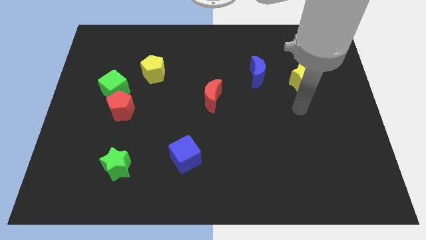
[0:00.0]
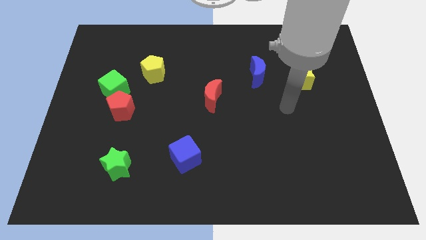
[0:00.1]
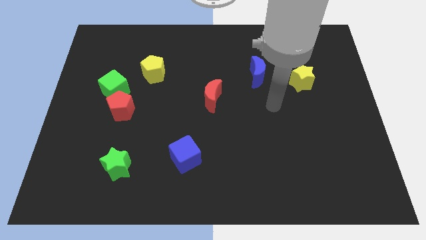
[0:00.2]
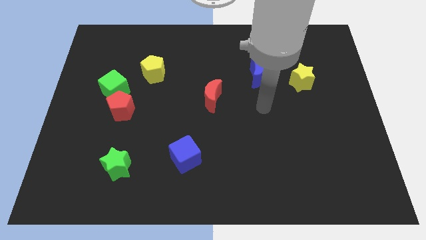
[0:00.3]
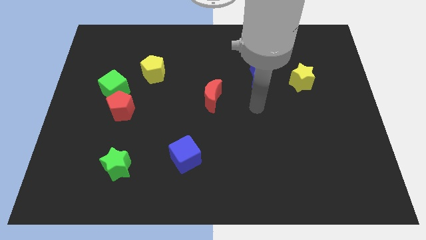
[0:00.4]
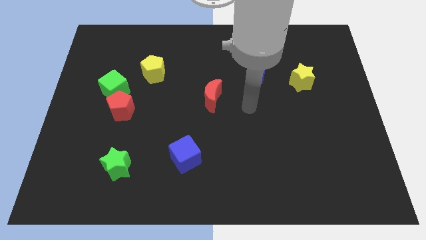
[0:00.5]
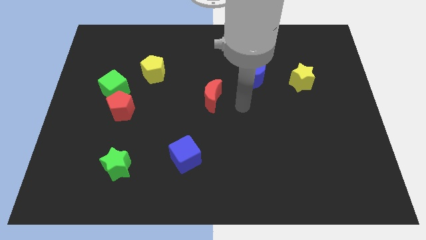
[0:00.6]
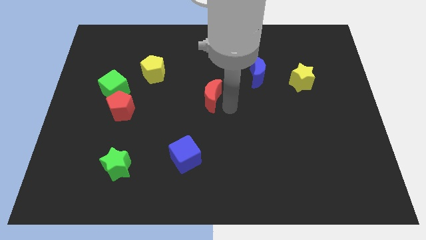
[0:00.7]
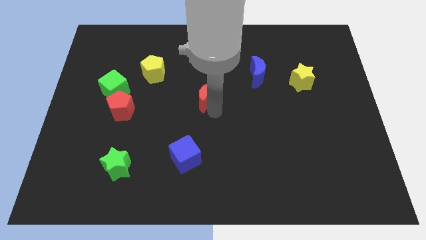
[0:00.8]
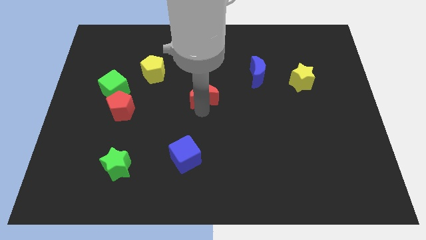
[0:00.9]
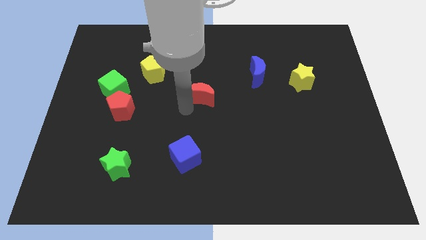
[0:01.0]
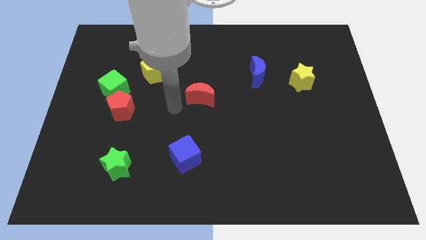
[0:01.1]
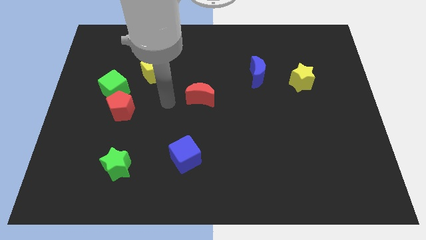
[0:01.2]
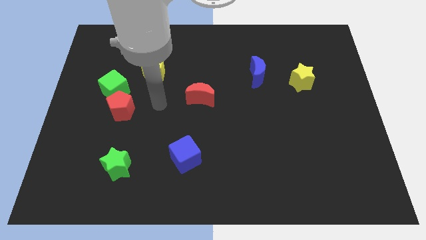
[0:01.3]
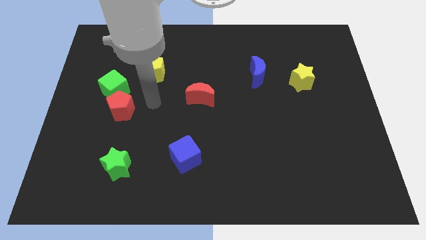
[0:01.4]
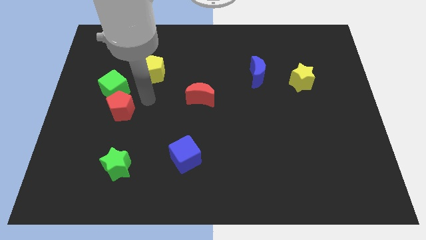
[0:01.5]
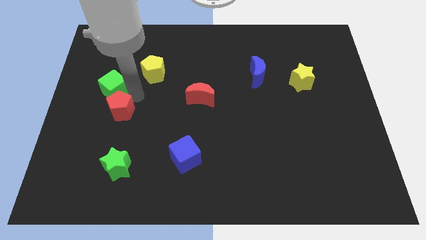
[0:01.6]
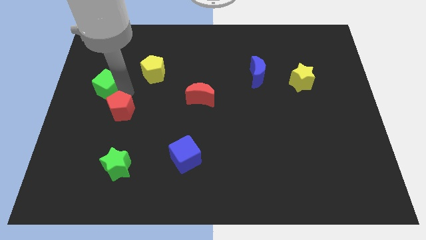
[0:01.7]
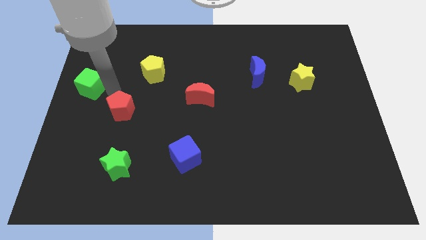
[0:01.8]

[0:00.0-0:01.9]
move the red pentagon away from the green cube

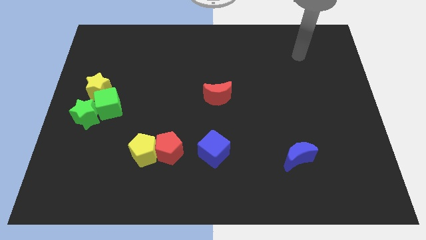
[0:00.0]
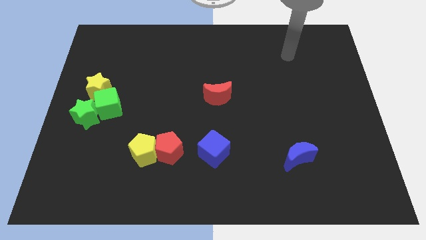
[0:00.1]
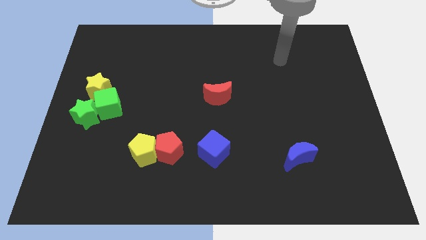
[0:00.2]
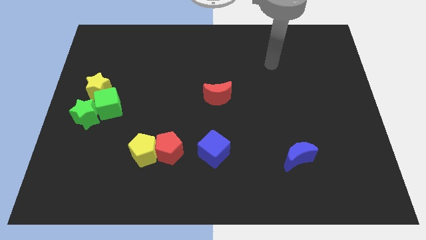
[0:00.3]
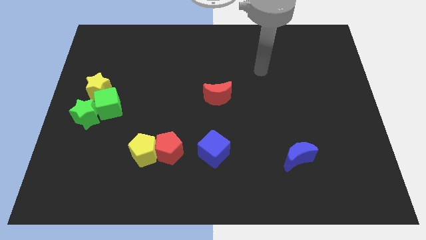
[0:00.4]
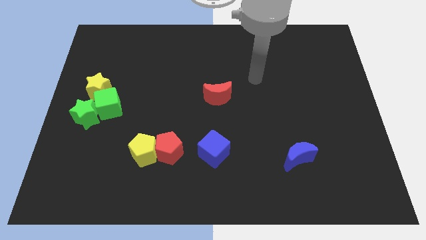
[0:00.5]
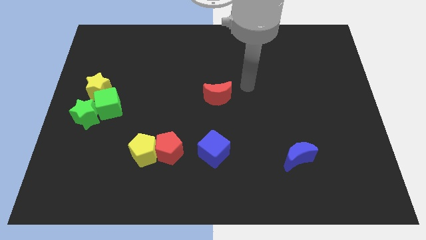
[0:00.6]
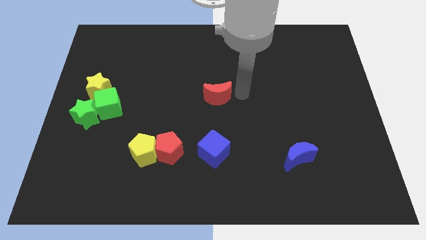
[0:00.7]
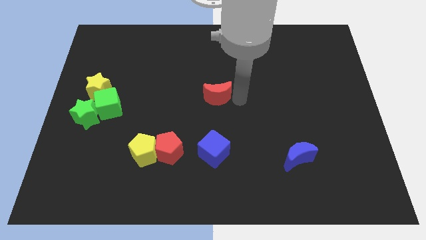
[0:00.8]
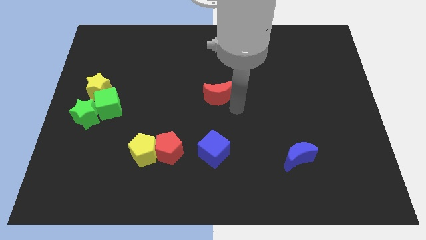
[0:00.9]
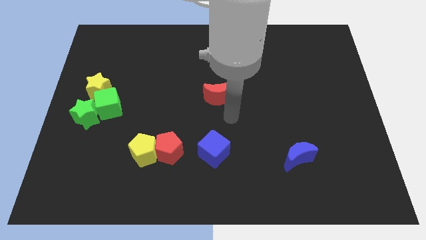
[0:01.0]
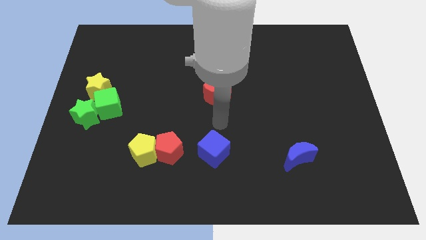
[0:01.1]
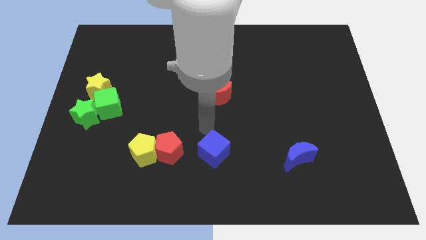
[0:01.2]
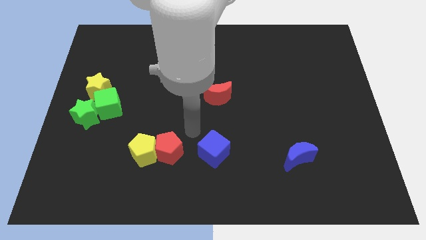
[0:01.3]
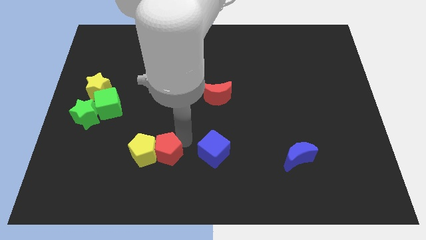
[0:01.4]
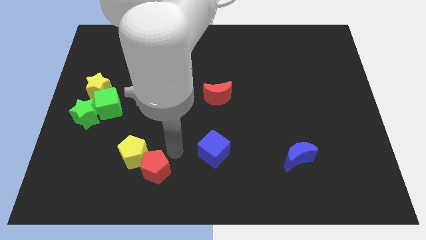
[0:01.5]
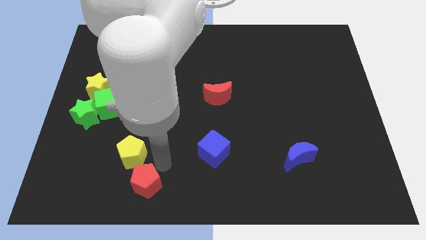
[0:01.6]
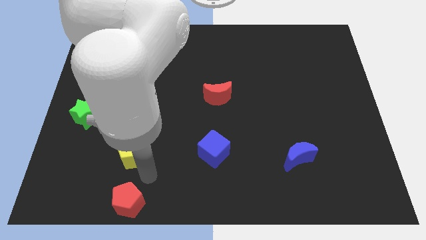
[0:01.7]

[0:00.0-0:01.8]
move the yellow pentagon away from the red pentagon

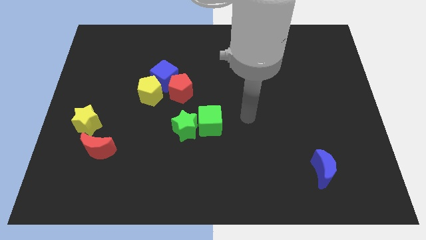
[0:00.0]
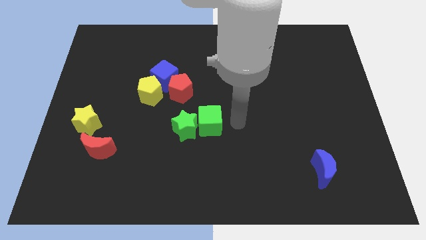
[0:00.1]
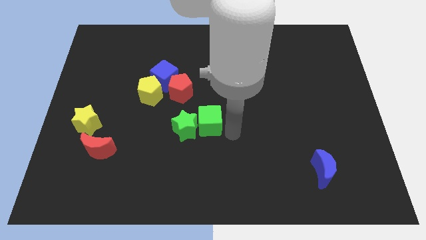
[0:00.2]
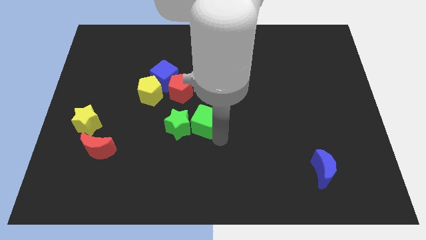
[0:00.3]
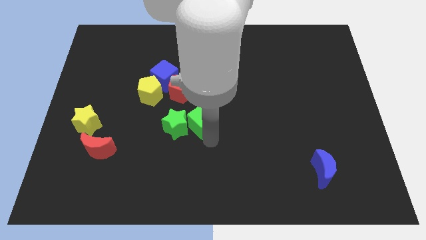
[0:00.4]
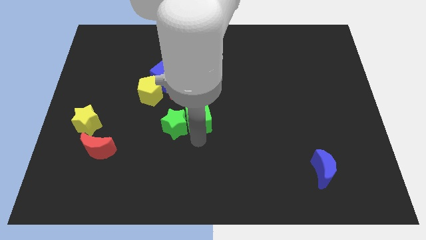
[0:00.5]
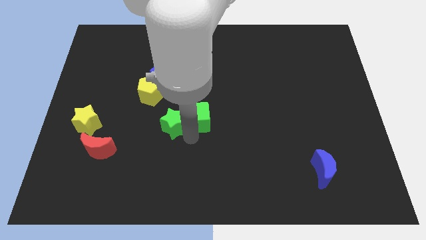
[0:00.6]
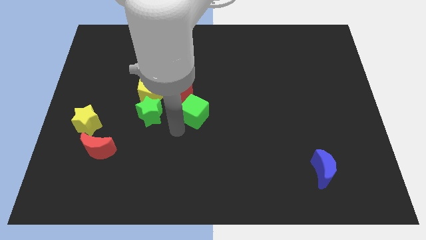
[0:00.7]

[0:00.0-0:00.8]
pull the green cube apart from the green star

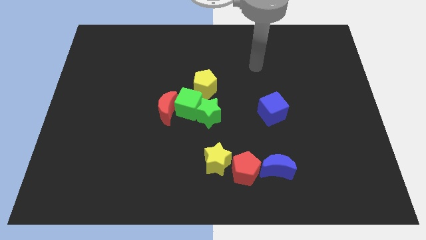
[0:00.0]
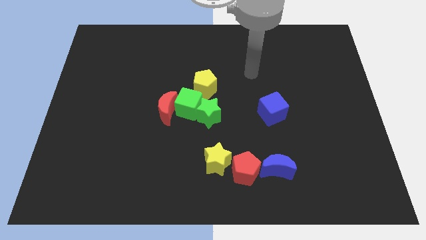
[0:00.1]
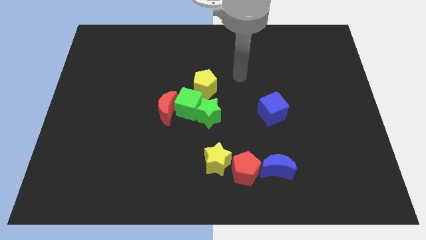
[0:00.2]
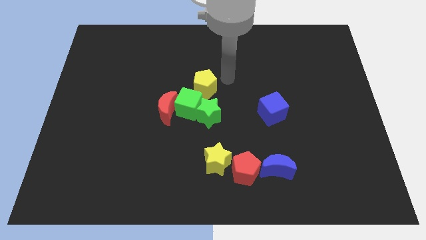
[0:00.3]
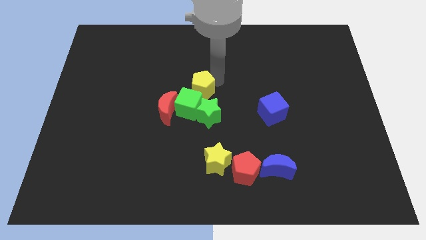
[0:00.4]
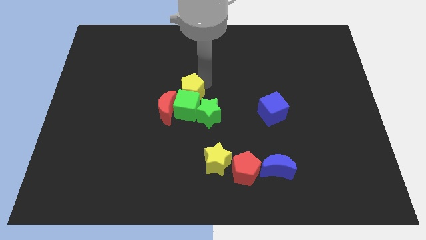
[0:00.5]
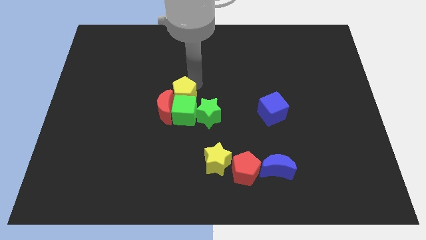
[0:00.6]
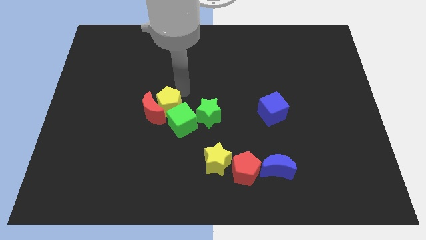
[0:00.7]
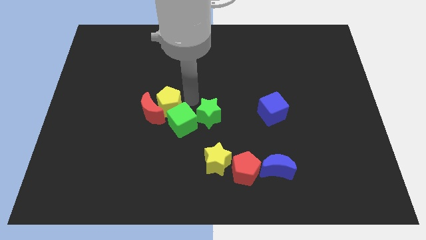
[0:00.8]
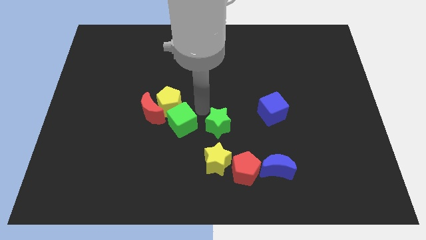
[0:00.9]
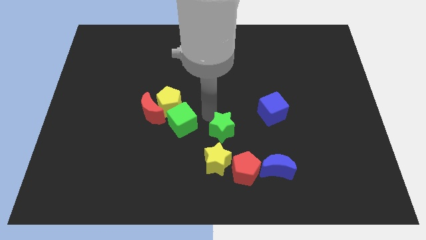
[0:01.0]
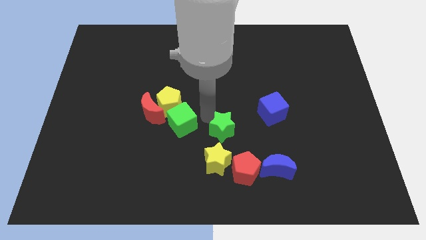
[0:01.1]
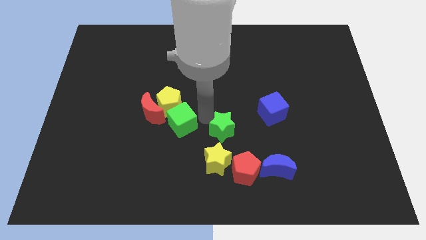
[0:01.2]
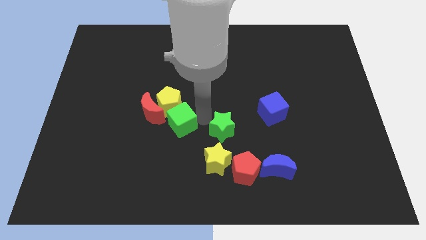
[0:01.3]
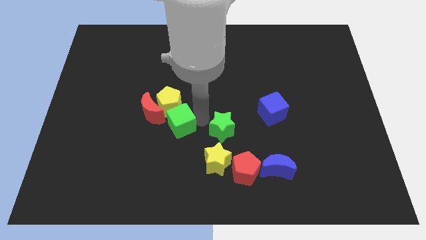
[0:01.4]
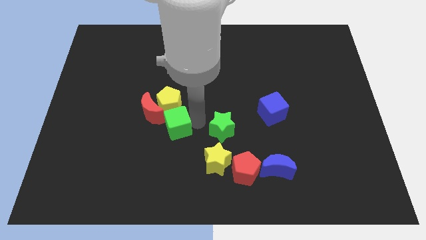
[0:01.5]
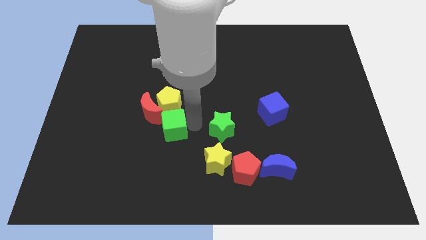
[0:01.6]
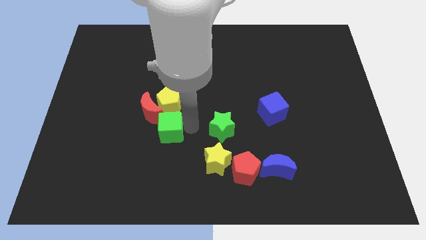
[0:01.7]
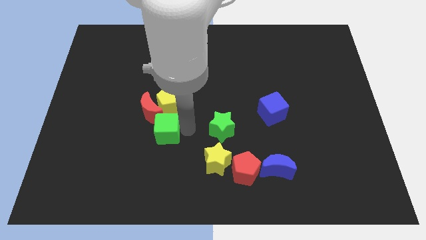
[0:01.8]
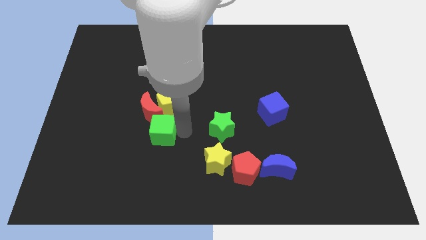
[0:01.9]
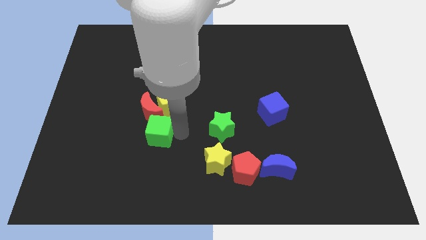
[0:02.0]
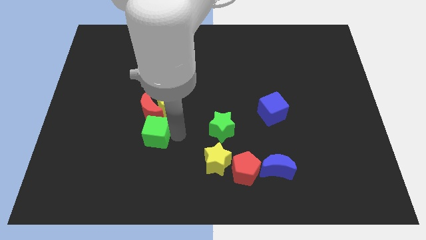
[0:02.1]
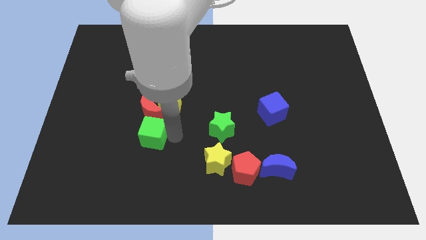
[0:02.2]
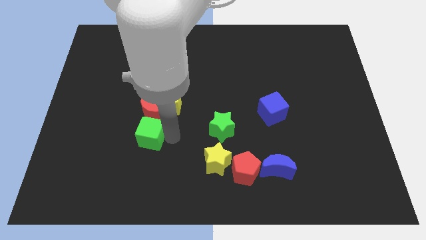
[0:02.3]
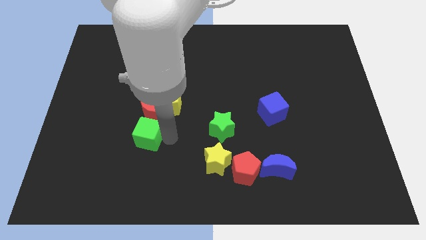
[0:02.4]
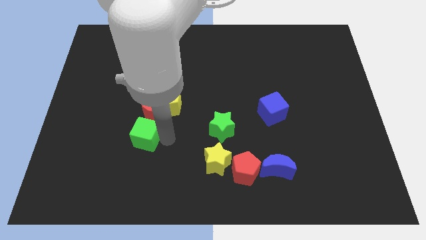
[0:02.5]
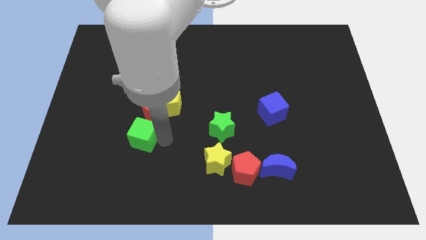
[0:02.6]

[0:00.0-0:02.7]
separate the green cube from the red moon, green star, and yellow pentagon

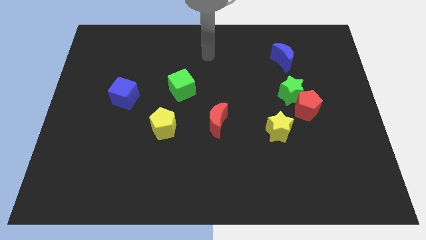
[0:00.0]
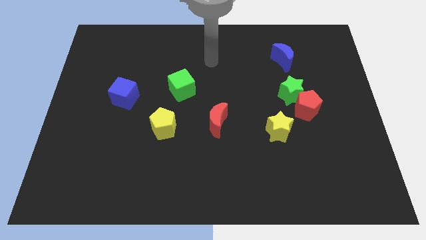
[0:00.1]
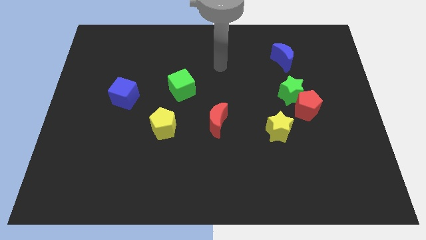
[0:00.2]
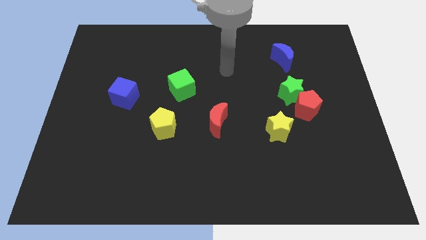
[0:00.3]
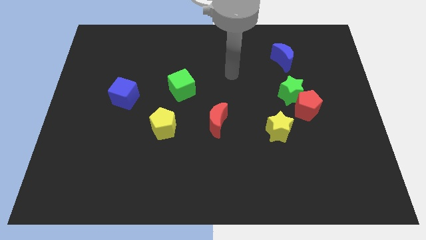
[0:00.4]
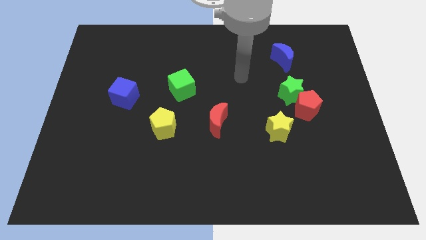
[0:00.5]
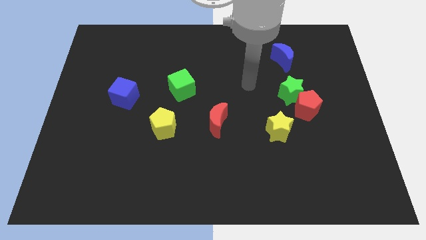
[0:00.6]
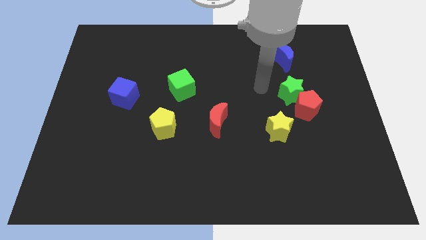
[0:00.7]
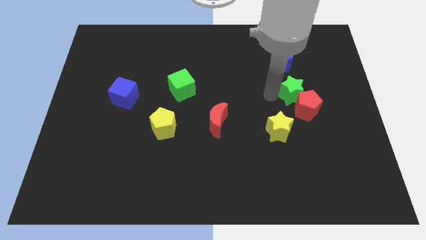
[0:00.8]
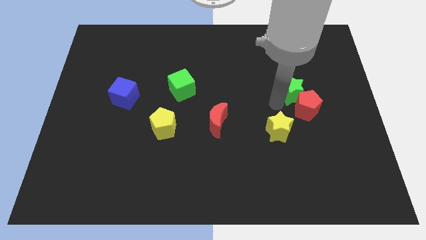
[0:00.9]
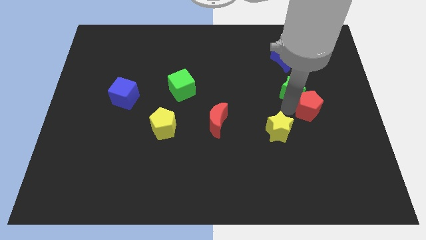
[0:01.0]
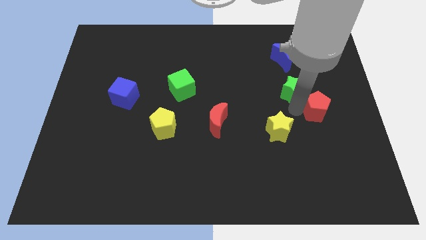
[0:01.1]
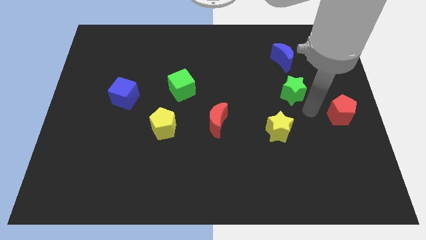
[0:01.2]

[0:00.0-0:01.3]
separate the green star from the red pentagon

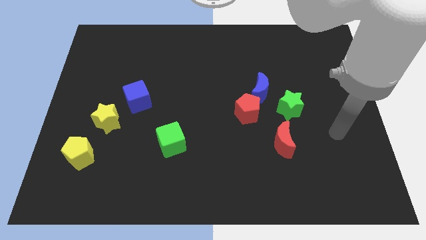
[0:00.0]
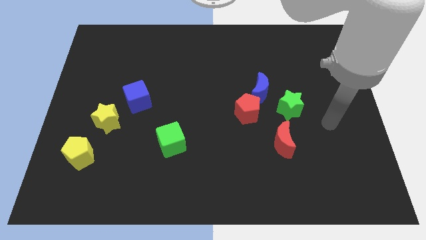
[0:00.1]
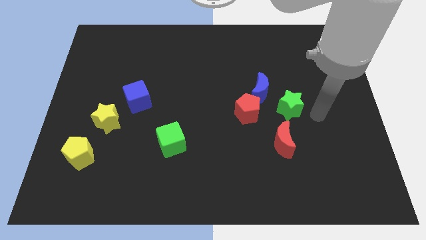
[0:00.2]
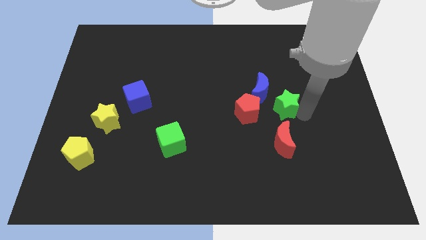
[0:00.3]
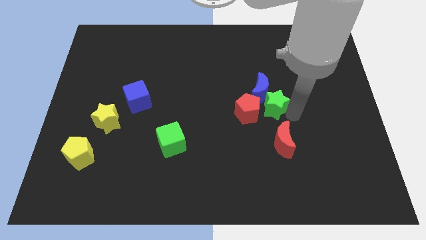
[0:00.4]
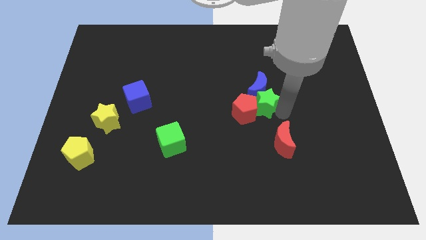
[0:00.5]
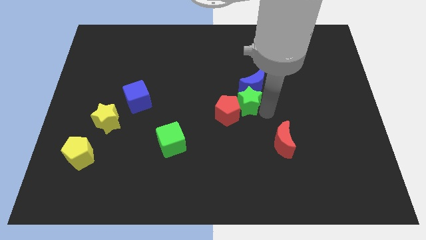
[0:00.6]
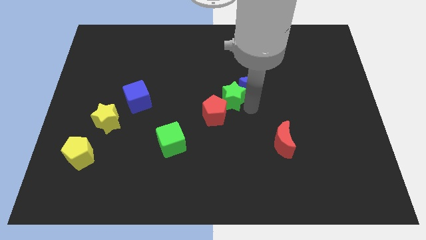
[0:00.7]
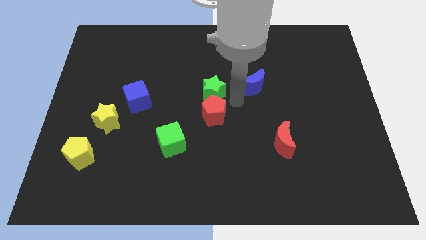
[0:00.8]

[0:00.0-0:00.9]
separate the blue moon from the red pentagon and green star
